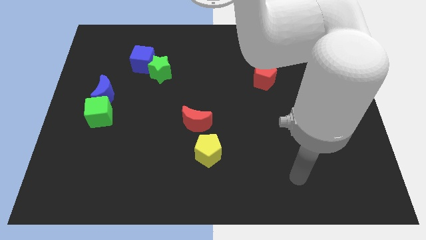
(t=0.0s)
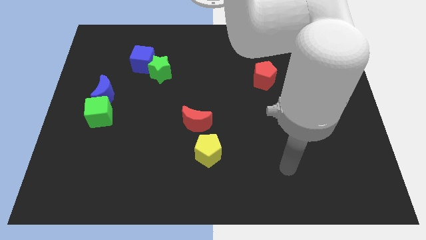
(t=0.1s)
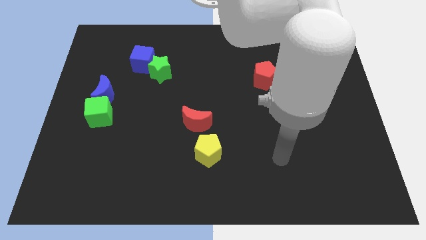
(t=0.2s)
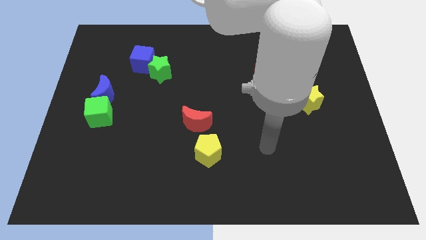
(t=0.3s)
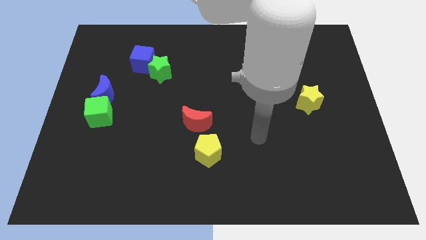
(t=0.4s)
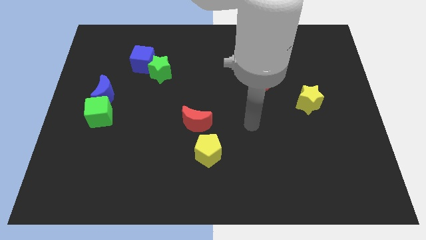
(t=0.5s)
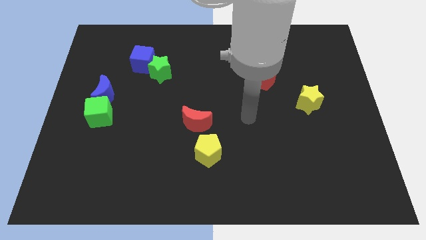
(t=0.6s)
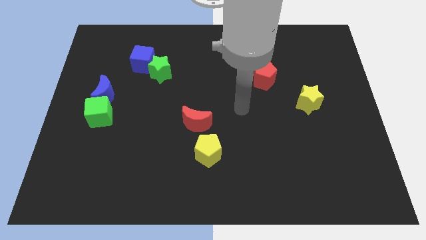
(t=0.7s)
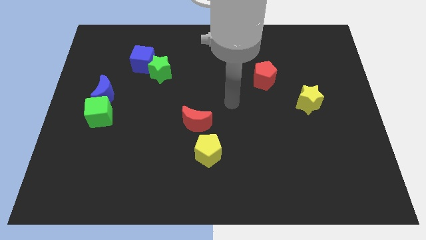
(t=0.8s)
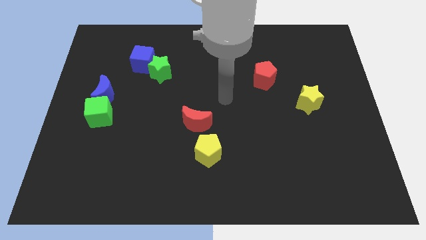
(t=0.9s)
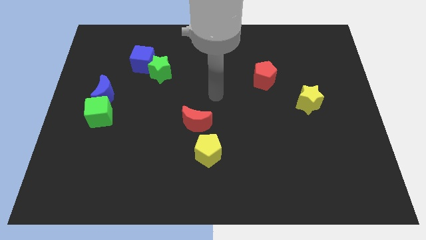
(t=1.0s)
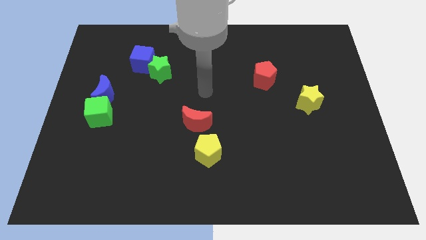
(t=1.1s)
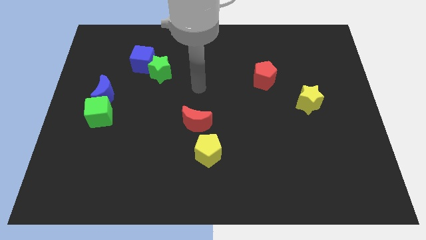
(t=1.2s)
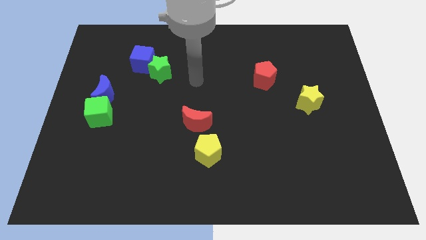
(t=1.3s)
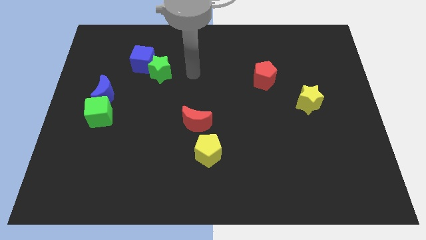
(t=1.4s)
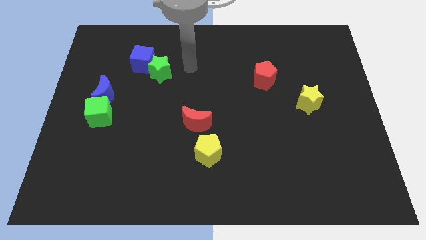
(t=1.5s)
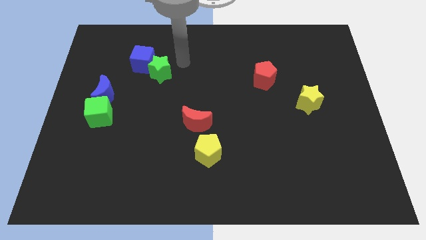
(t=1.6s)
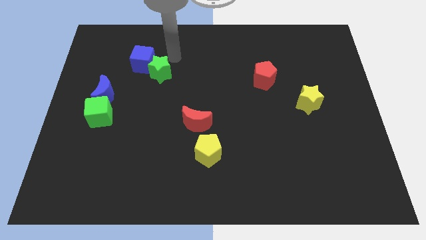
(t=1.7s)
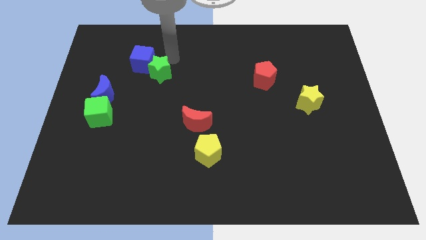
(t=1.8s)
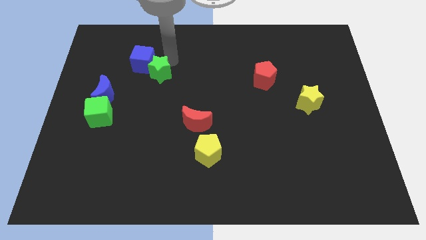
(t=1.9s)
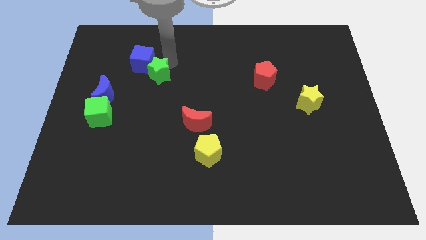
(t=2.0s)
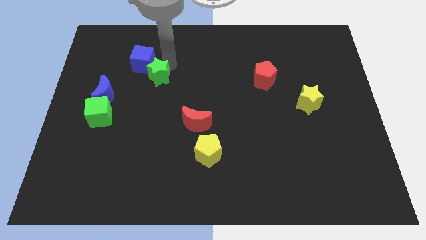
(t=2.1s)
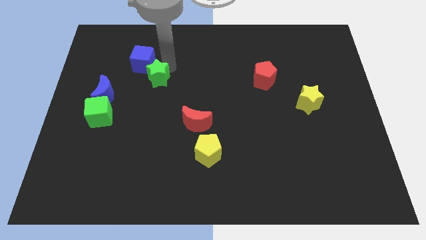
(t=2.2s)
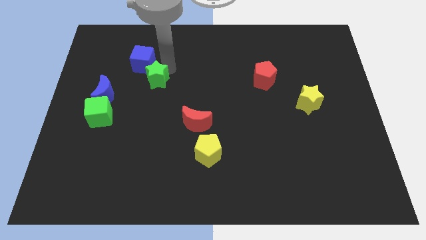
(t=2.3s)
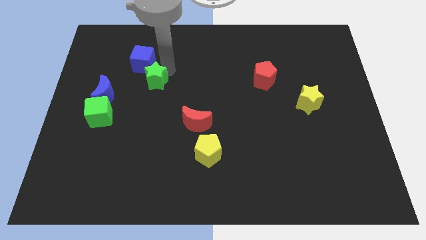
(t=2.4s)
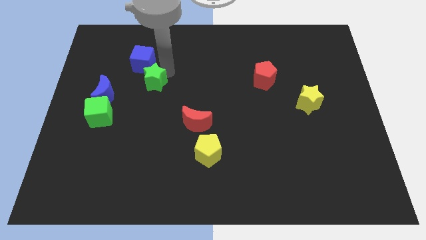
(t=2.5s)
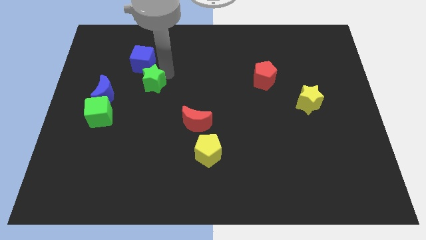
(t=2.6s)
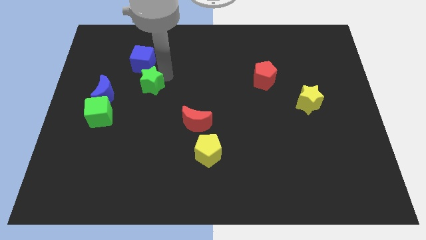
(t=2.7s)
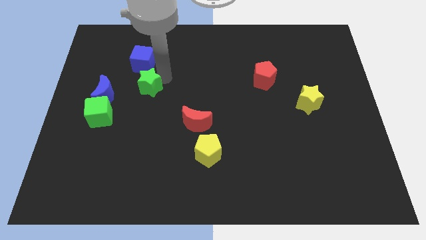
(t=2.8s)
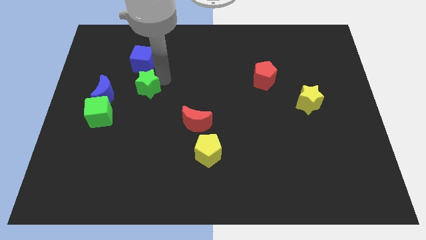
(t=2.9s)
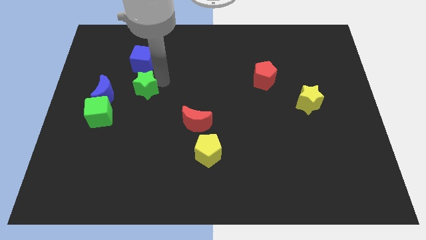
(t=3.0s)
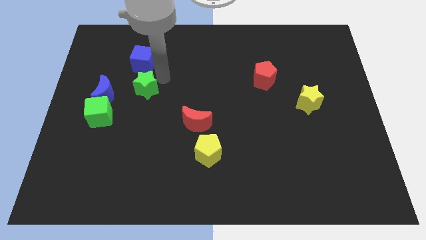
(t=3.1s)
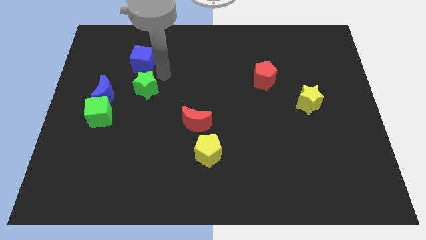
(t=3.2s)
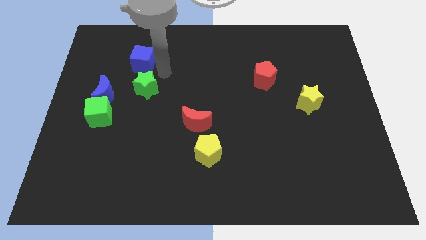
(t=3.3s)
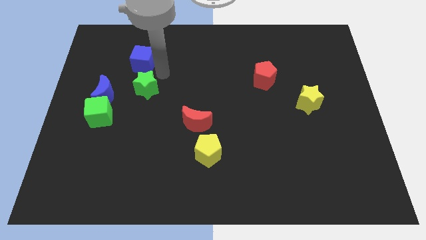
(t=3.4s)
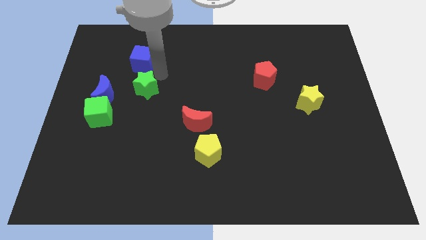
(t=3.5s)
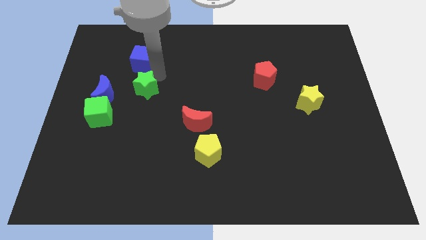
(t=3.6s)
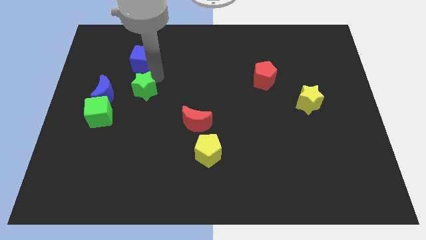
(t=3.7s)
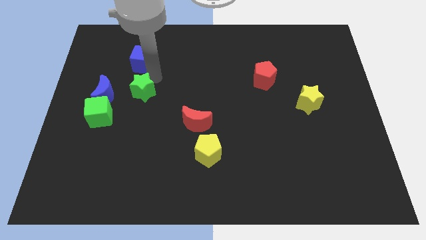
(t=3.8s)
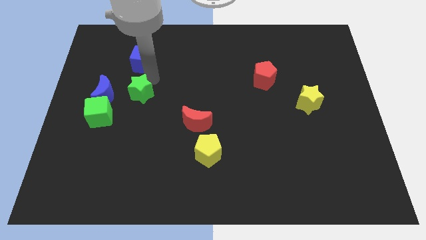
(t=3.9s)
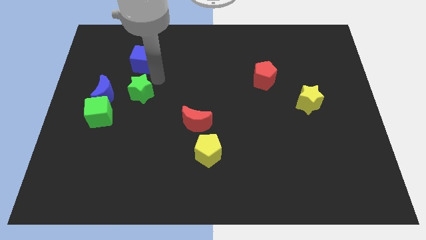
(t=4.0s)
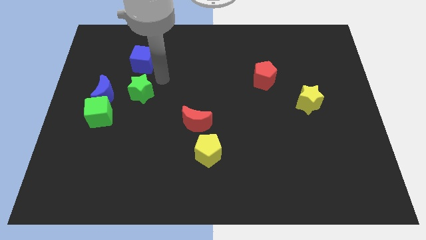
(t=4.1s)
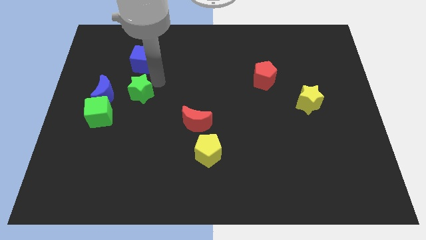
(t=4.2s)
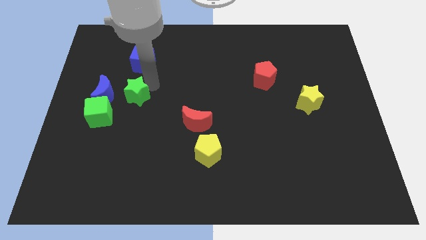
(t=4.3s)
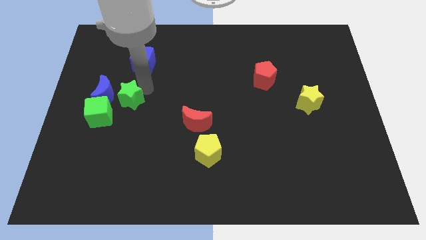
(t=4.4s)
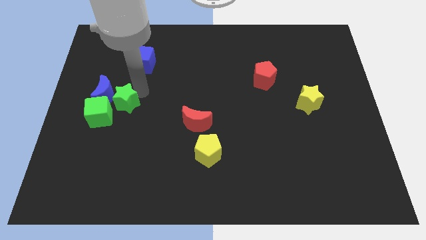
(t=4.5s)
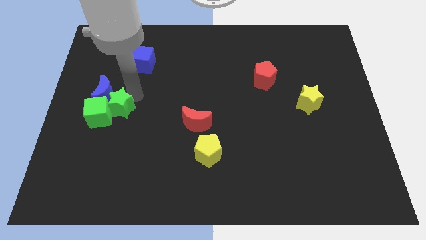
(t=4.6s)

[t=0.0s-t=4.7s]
slide the green star close to the green cube

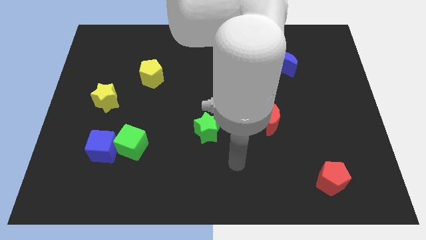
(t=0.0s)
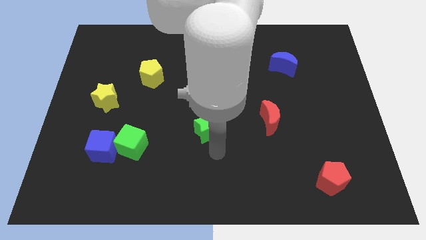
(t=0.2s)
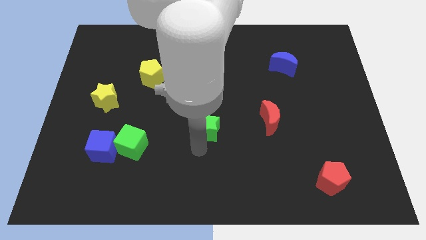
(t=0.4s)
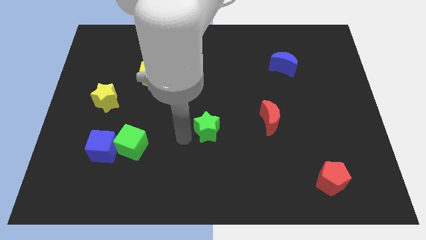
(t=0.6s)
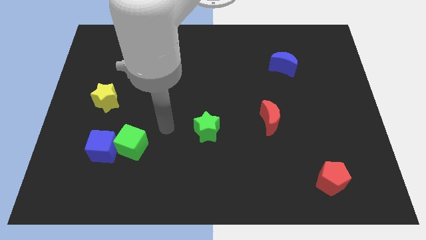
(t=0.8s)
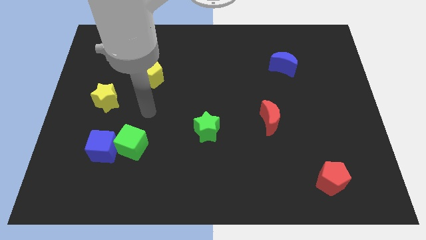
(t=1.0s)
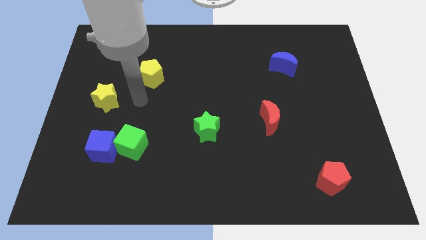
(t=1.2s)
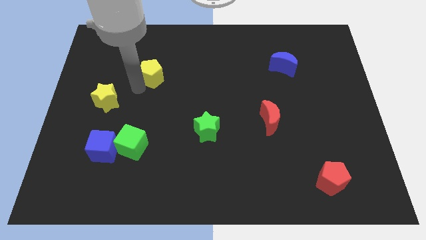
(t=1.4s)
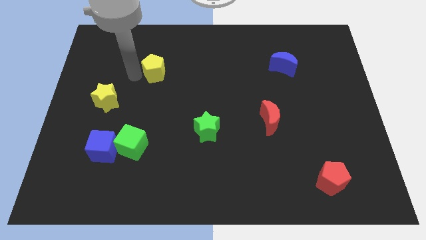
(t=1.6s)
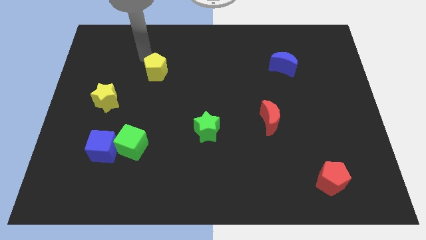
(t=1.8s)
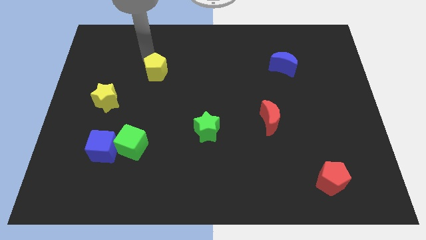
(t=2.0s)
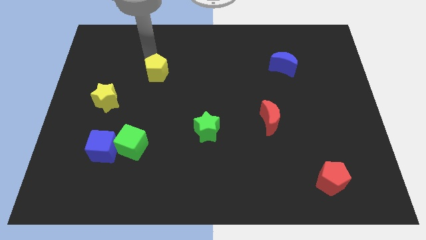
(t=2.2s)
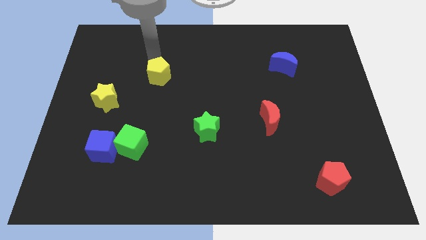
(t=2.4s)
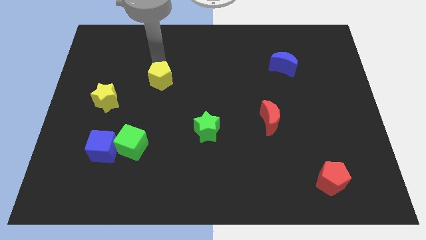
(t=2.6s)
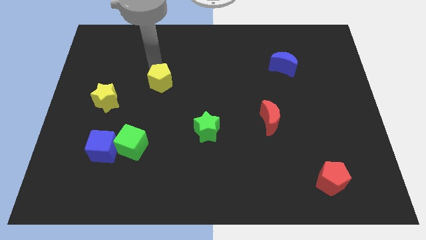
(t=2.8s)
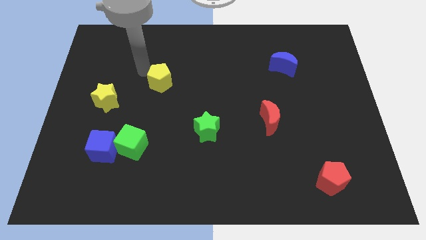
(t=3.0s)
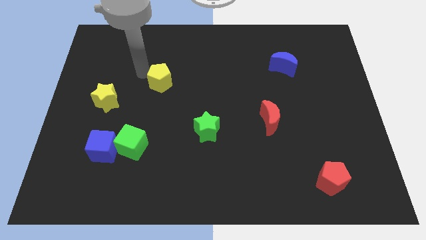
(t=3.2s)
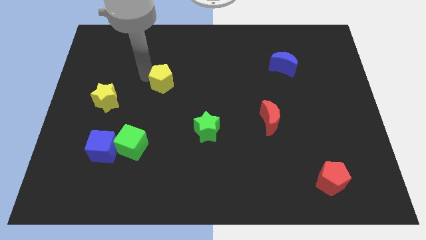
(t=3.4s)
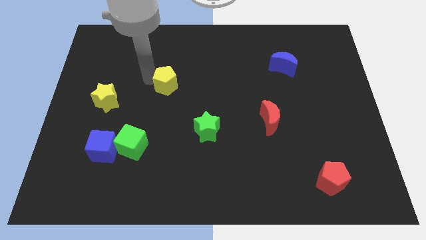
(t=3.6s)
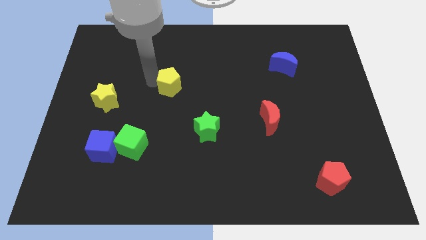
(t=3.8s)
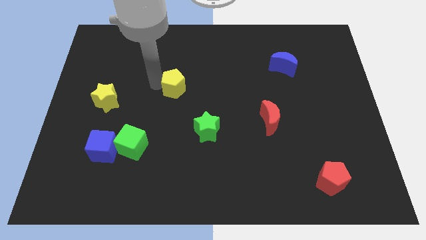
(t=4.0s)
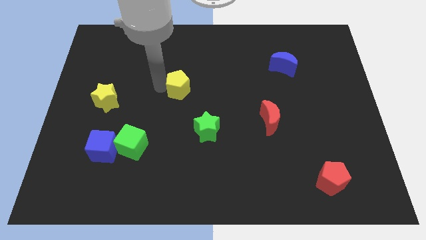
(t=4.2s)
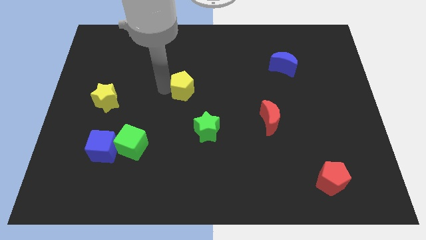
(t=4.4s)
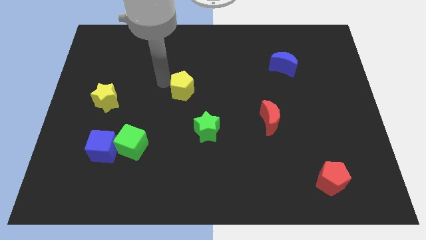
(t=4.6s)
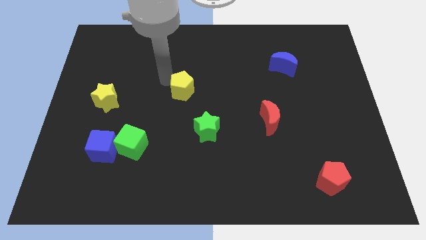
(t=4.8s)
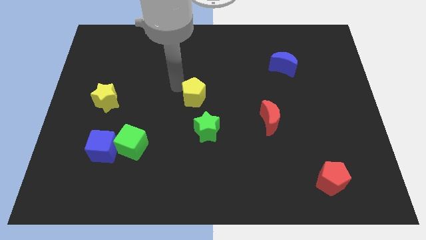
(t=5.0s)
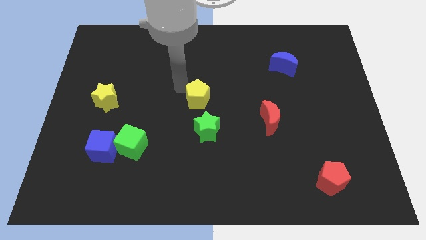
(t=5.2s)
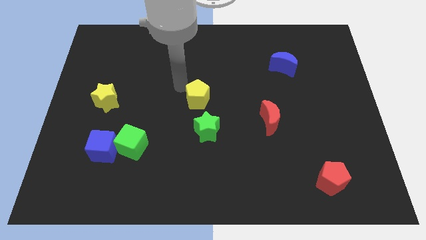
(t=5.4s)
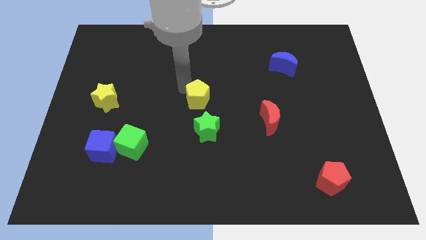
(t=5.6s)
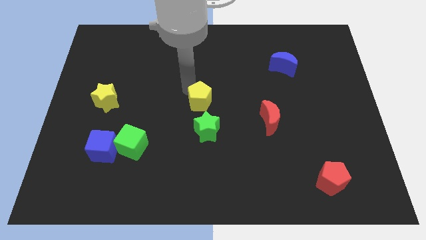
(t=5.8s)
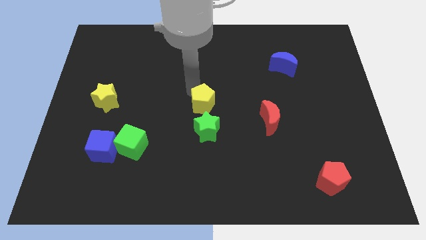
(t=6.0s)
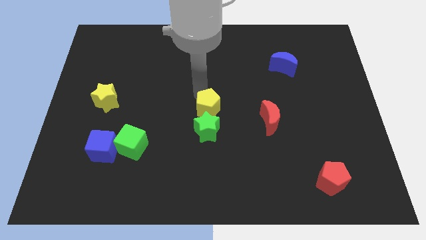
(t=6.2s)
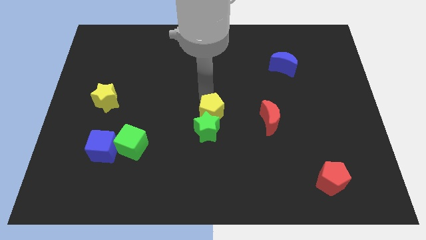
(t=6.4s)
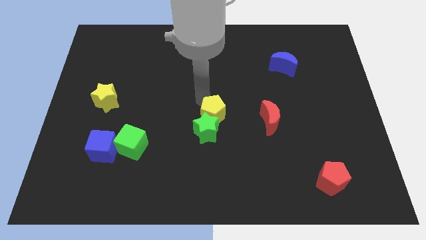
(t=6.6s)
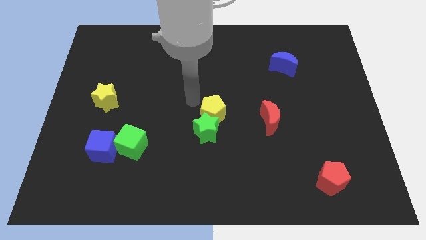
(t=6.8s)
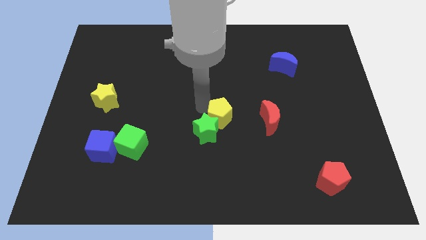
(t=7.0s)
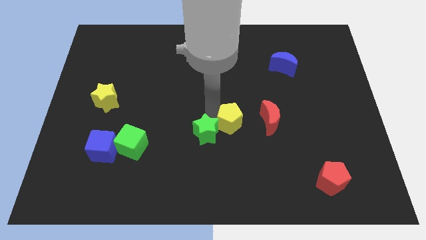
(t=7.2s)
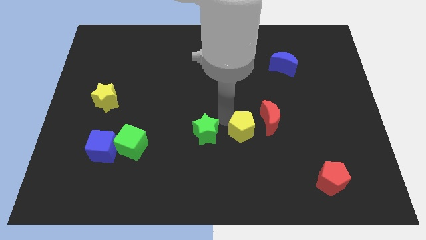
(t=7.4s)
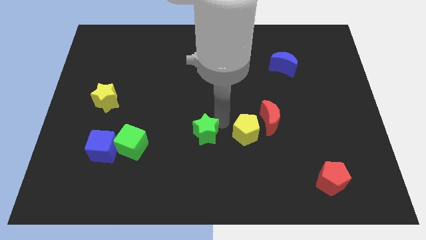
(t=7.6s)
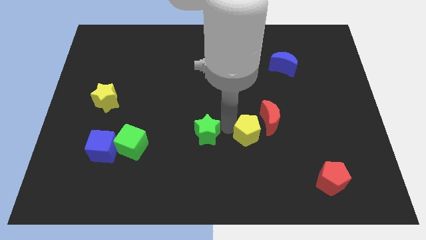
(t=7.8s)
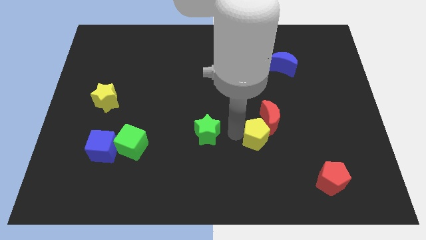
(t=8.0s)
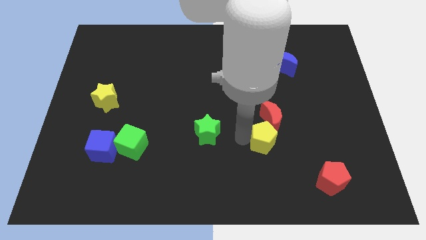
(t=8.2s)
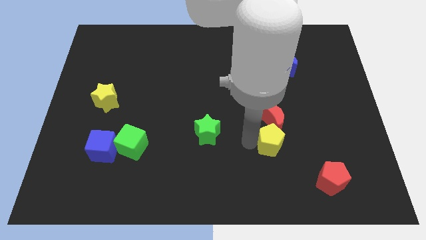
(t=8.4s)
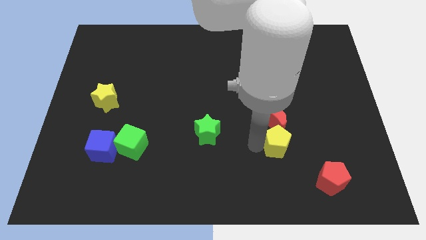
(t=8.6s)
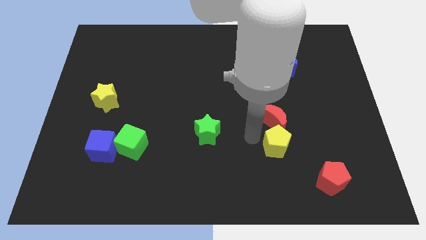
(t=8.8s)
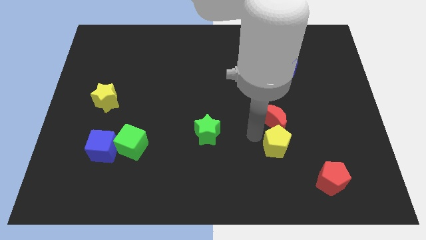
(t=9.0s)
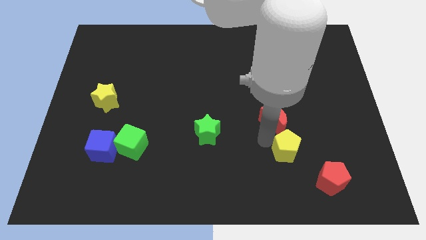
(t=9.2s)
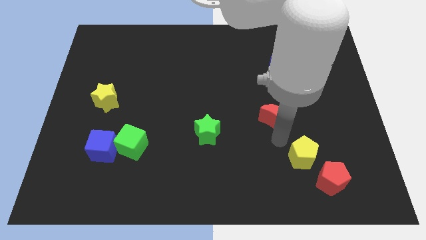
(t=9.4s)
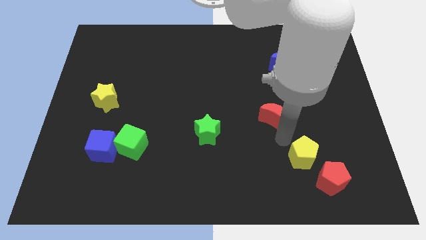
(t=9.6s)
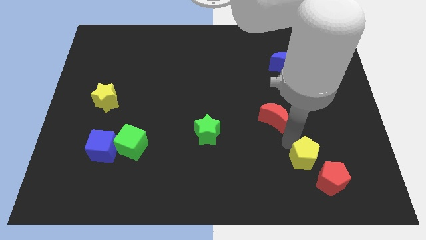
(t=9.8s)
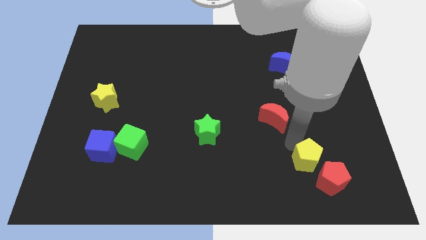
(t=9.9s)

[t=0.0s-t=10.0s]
put the yellow pentagon towards the red pentagon
